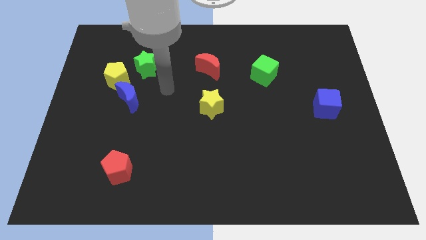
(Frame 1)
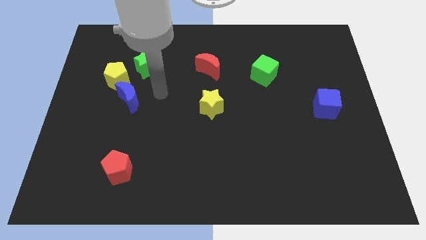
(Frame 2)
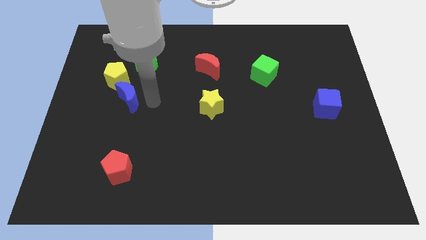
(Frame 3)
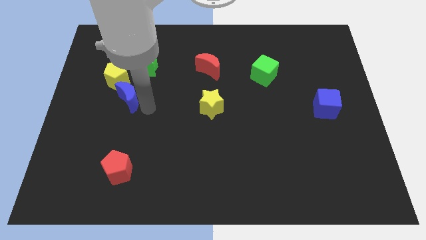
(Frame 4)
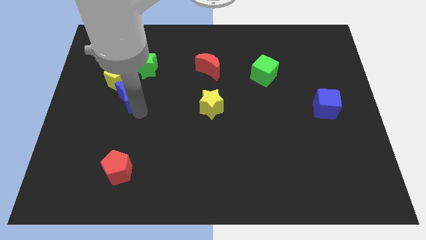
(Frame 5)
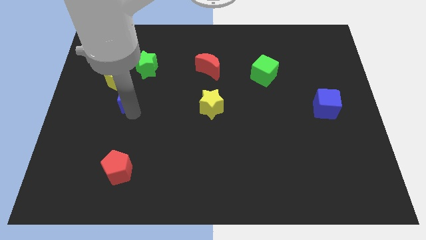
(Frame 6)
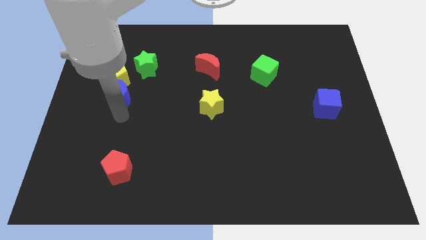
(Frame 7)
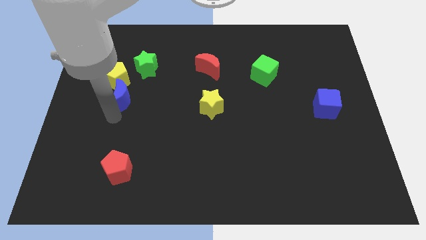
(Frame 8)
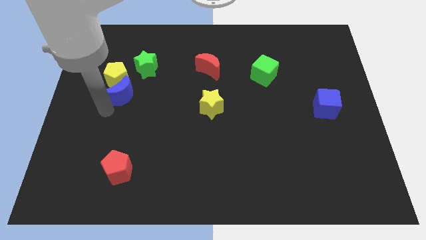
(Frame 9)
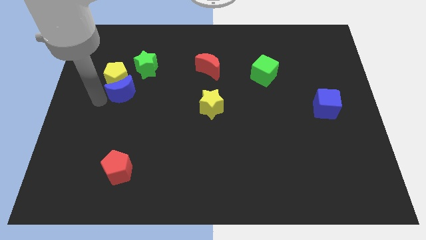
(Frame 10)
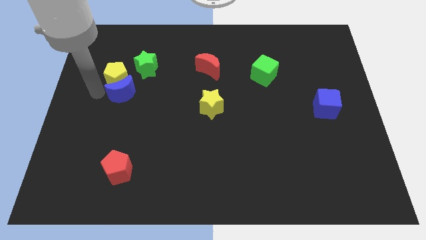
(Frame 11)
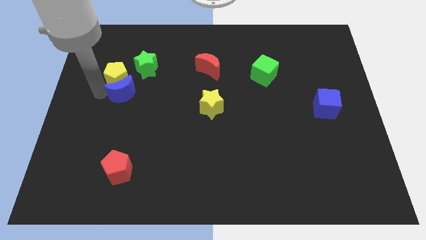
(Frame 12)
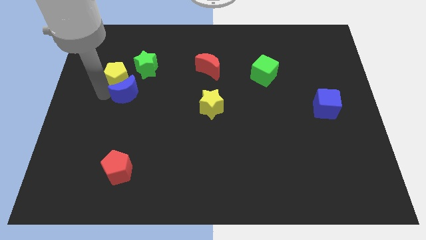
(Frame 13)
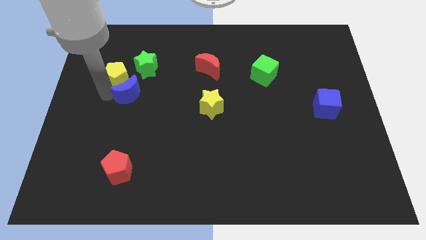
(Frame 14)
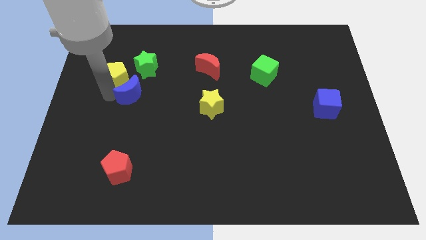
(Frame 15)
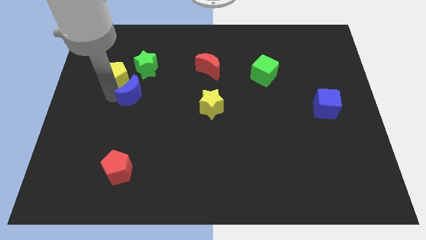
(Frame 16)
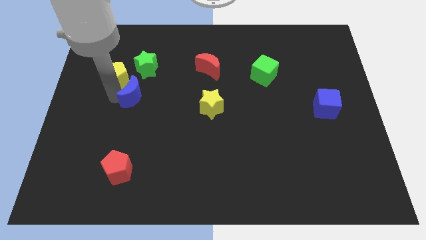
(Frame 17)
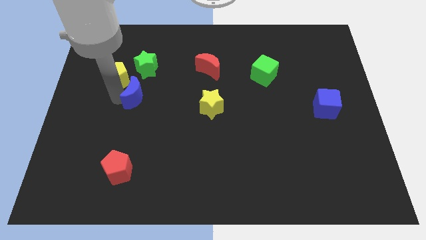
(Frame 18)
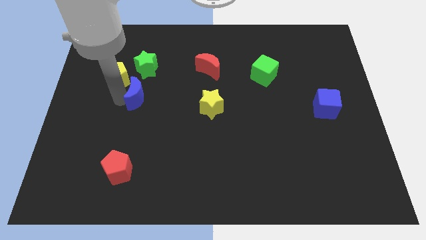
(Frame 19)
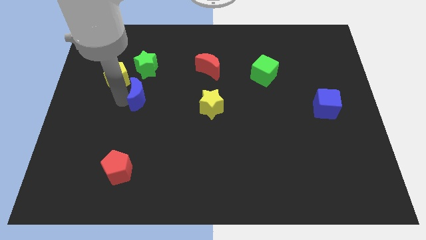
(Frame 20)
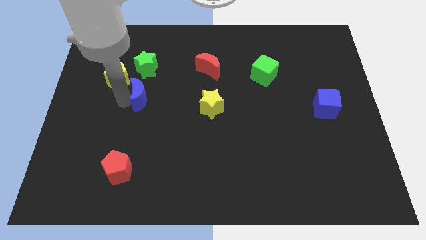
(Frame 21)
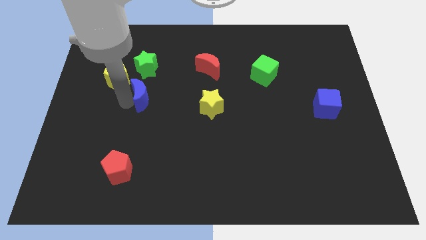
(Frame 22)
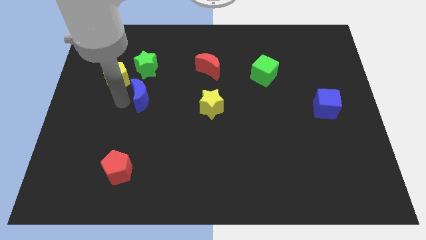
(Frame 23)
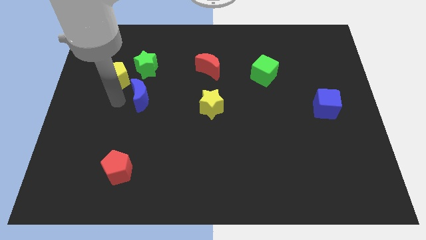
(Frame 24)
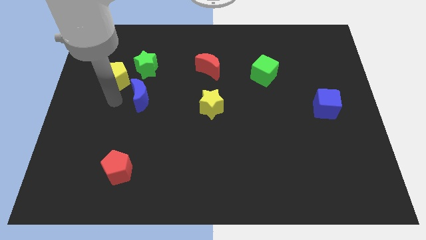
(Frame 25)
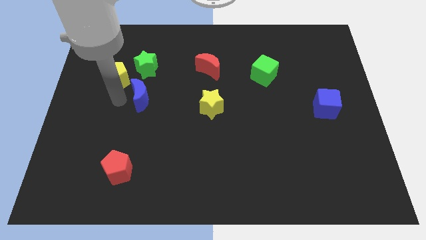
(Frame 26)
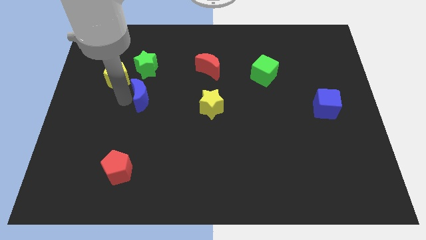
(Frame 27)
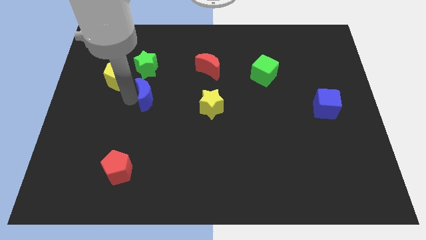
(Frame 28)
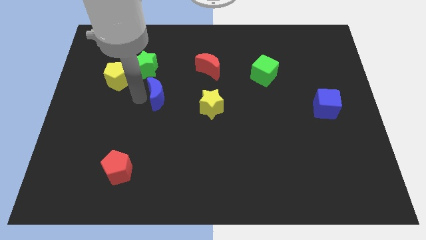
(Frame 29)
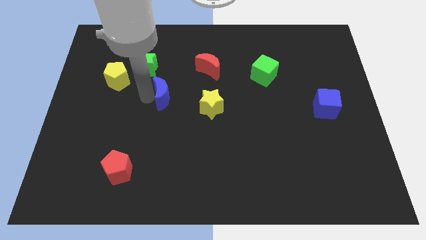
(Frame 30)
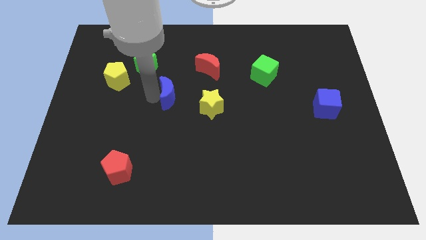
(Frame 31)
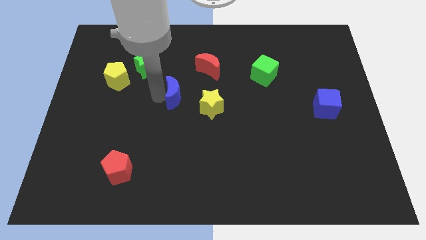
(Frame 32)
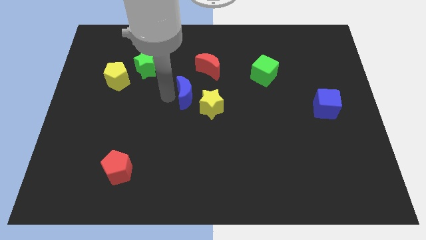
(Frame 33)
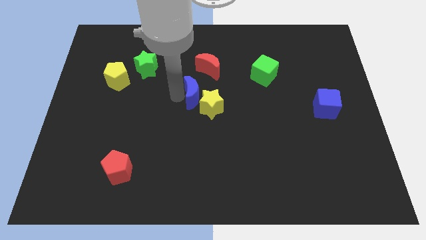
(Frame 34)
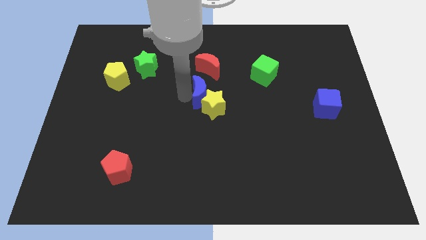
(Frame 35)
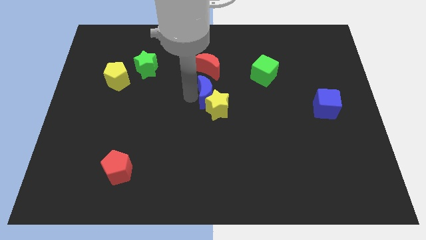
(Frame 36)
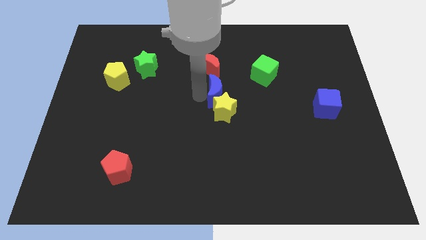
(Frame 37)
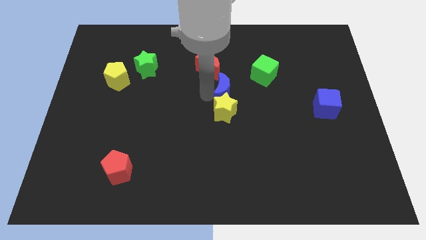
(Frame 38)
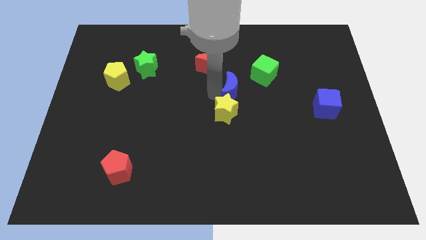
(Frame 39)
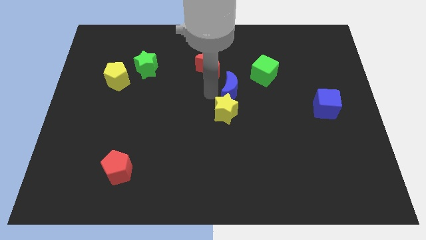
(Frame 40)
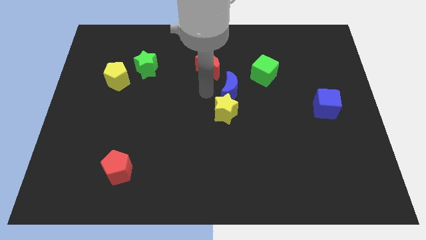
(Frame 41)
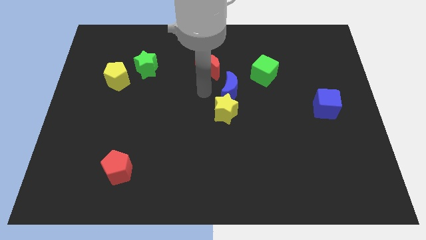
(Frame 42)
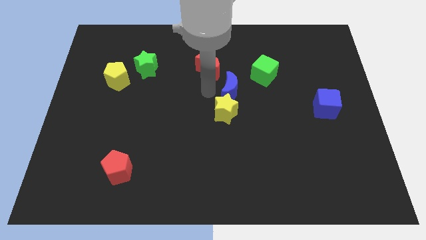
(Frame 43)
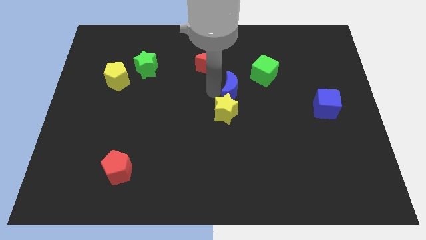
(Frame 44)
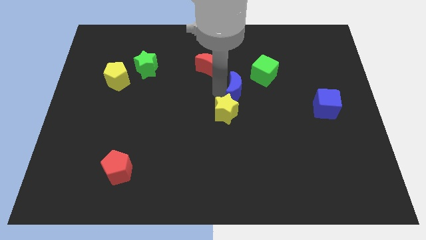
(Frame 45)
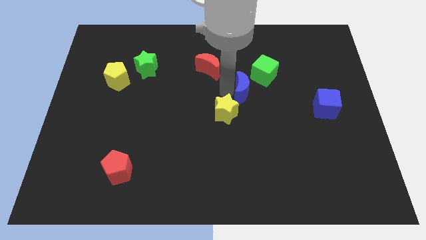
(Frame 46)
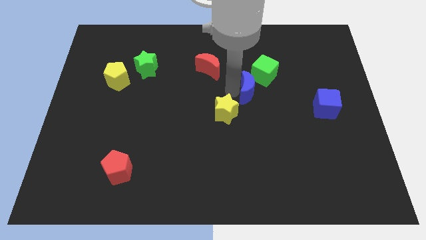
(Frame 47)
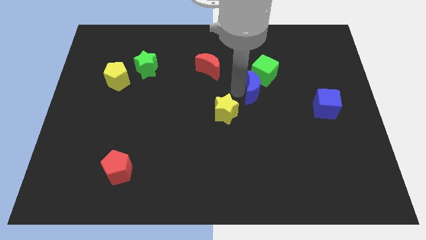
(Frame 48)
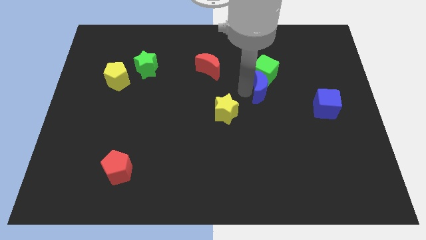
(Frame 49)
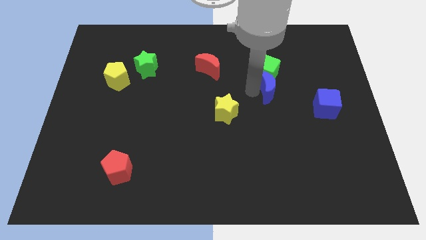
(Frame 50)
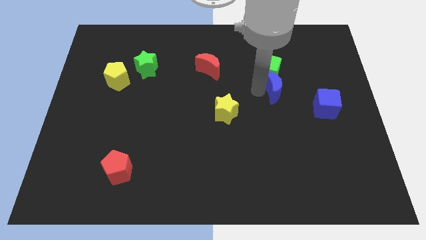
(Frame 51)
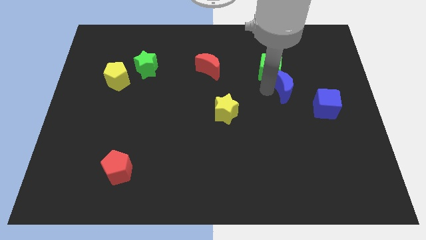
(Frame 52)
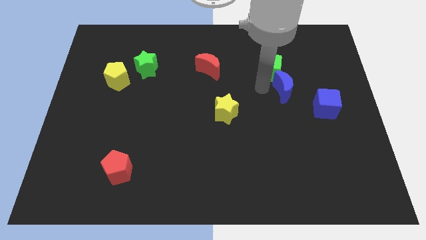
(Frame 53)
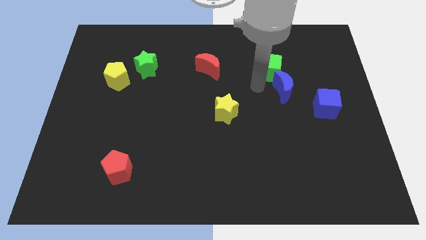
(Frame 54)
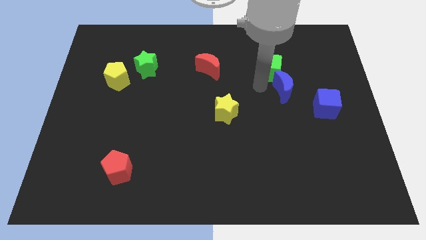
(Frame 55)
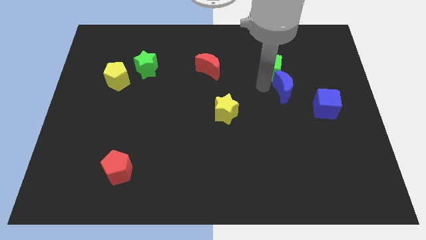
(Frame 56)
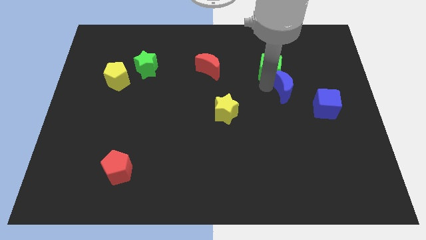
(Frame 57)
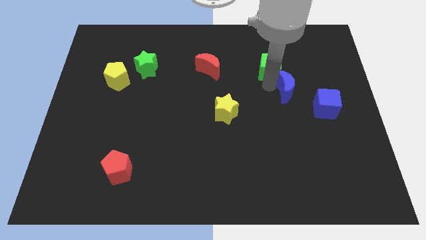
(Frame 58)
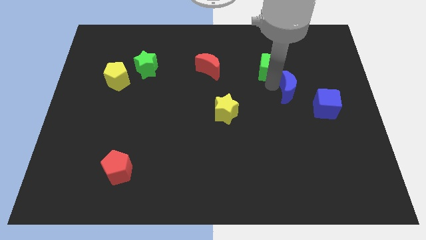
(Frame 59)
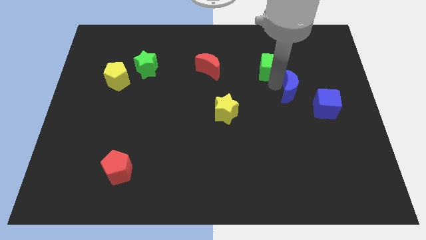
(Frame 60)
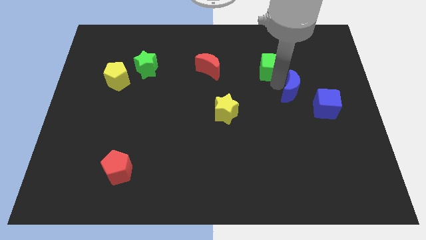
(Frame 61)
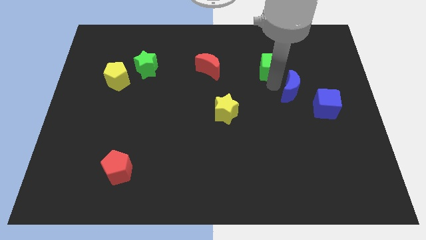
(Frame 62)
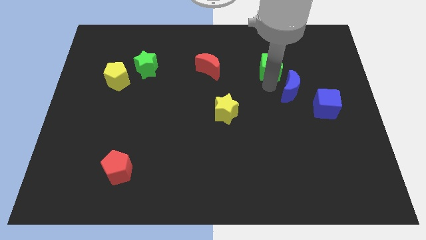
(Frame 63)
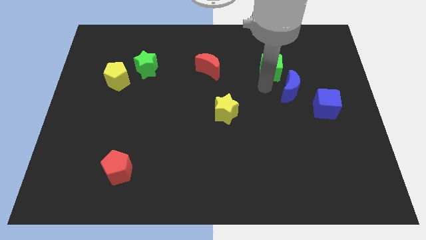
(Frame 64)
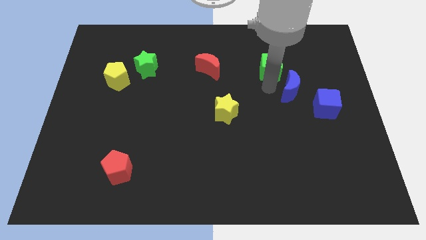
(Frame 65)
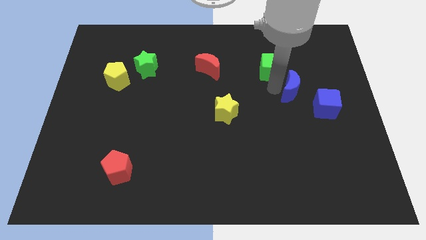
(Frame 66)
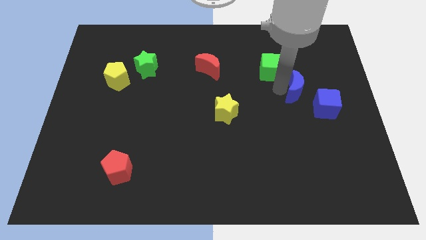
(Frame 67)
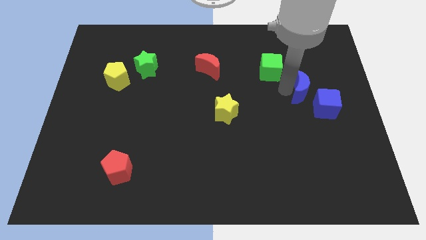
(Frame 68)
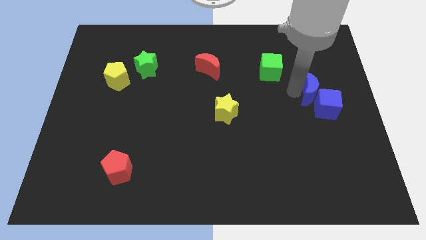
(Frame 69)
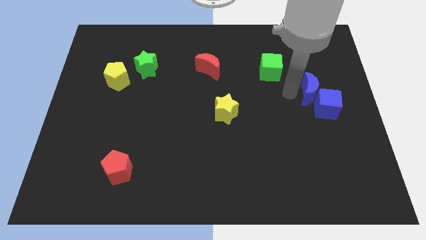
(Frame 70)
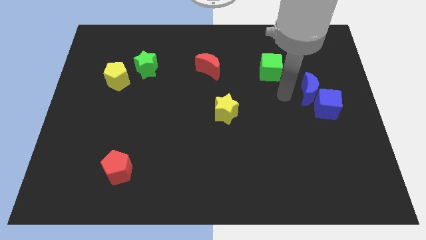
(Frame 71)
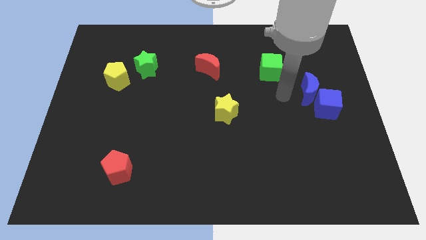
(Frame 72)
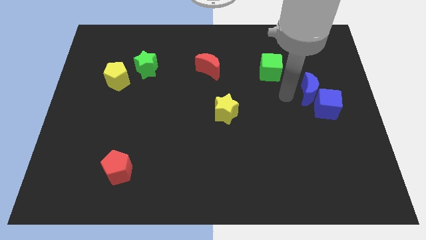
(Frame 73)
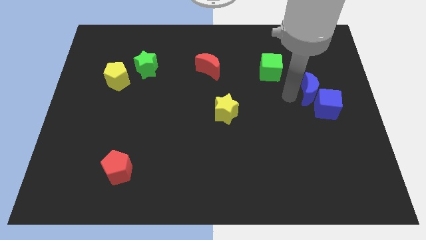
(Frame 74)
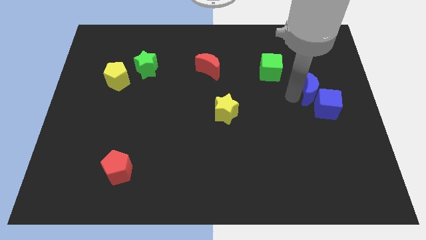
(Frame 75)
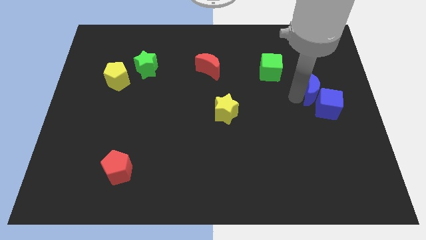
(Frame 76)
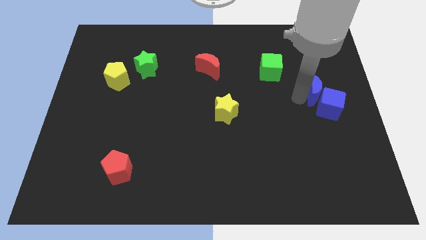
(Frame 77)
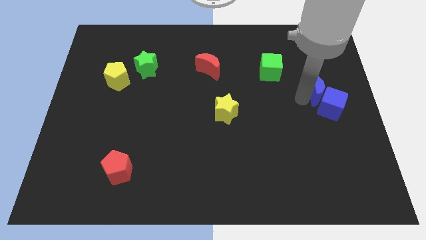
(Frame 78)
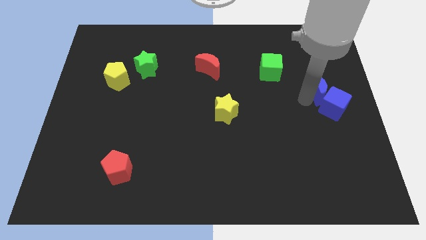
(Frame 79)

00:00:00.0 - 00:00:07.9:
move the blue moon to the right side of the board
